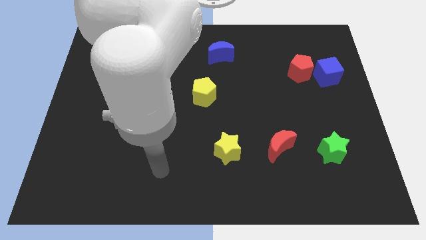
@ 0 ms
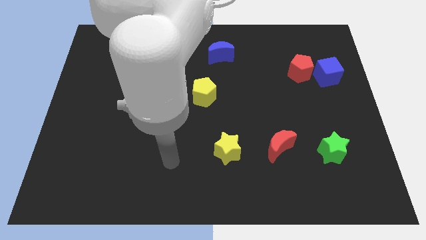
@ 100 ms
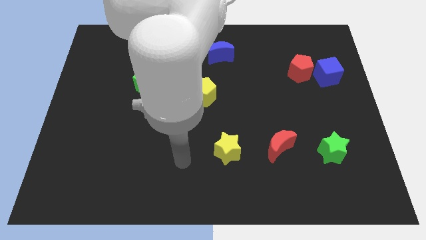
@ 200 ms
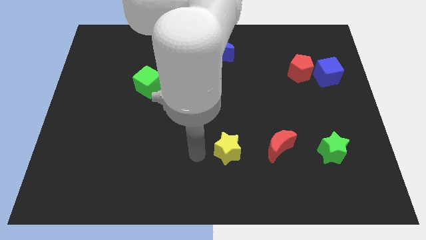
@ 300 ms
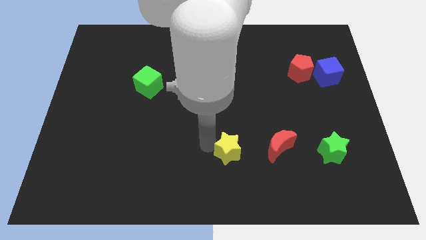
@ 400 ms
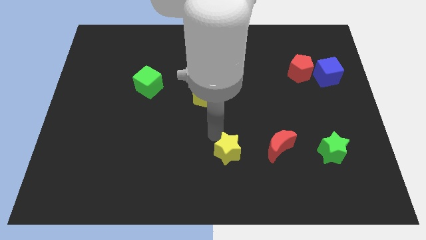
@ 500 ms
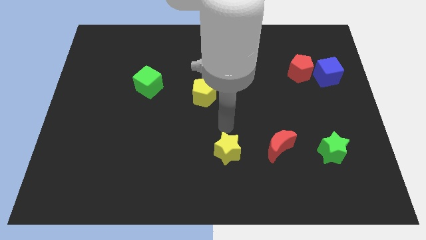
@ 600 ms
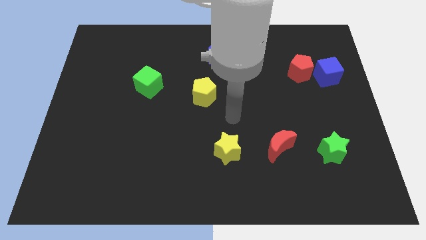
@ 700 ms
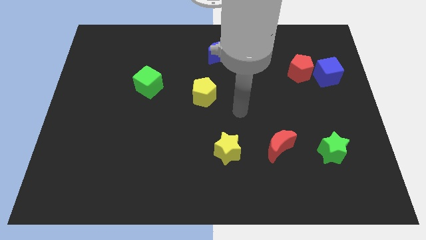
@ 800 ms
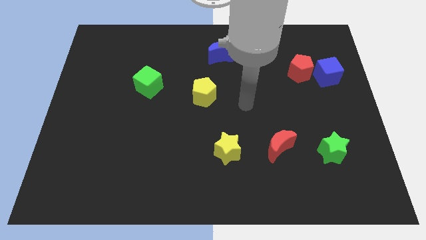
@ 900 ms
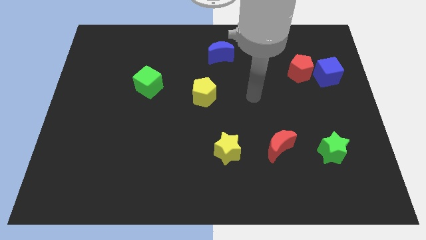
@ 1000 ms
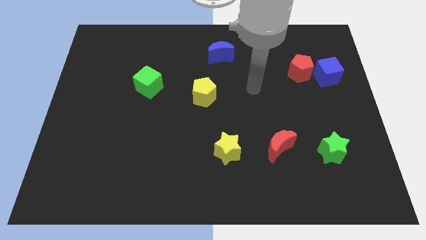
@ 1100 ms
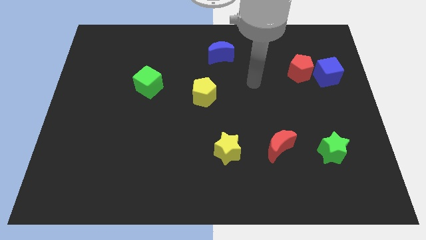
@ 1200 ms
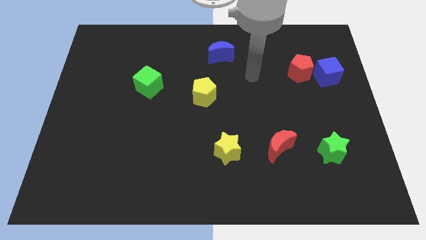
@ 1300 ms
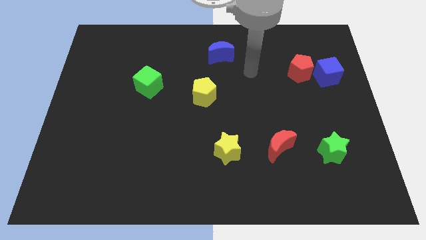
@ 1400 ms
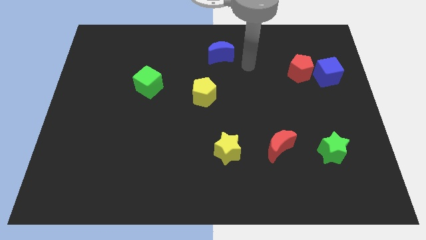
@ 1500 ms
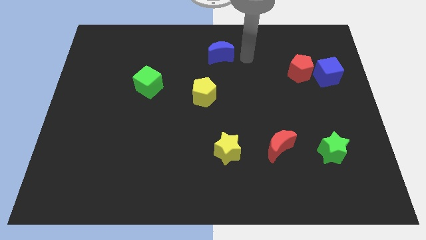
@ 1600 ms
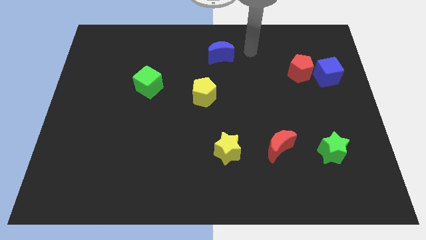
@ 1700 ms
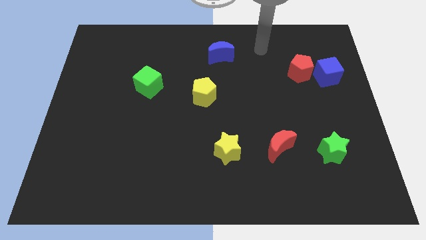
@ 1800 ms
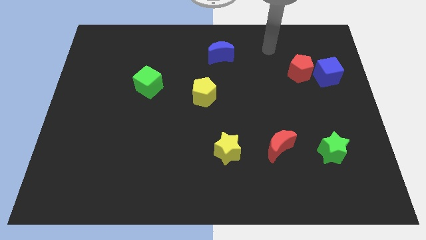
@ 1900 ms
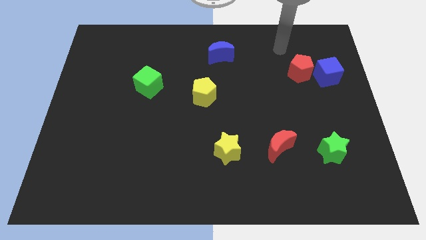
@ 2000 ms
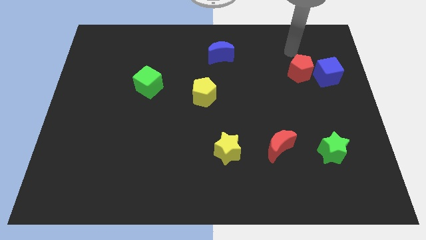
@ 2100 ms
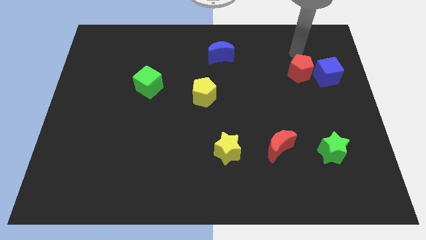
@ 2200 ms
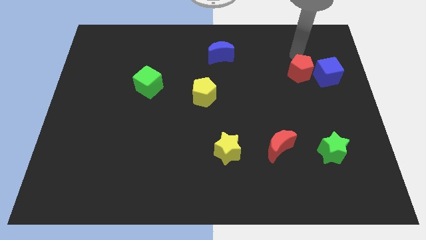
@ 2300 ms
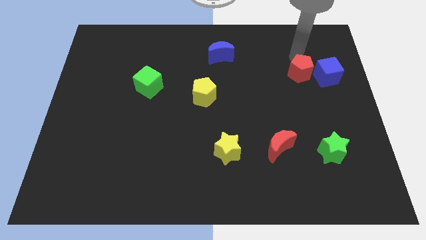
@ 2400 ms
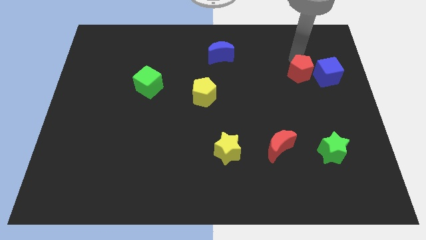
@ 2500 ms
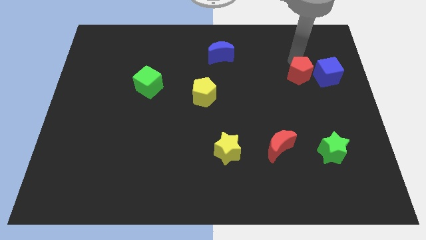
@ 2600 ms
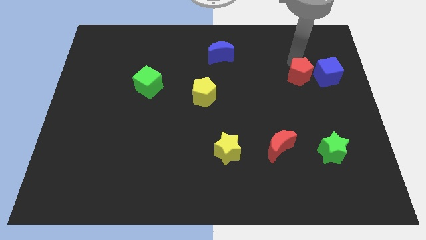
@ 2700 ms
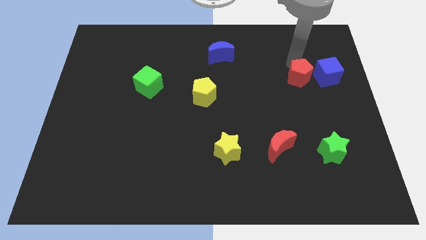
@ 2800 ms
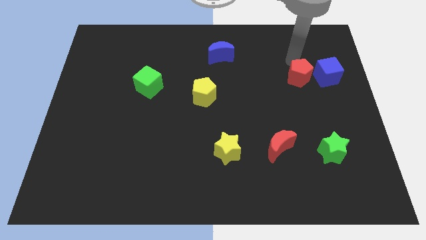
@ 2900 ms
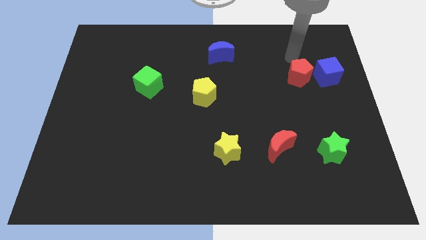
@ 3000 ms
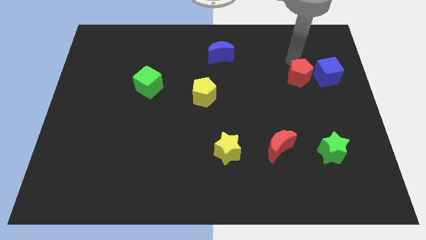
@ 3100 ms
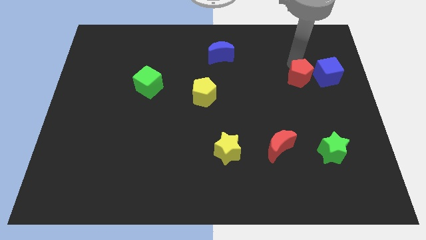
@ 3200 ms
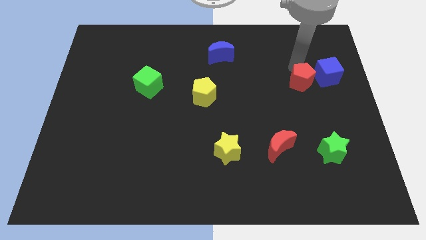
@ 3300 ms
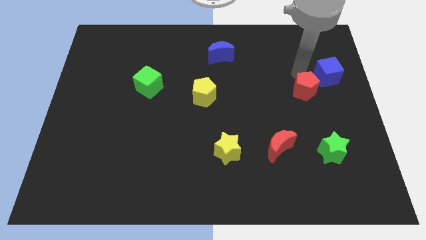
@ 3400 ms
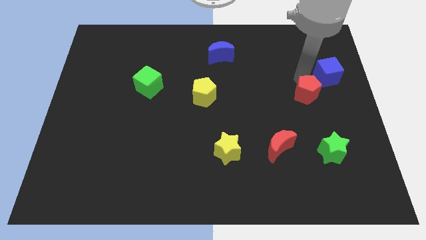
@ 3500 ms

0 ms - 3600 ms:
slightly move the red pentagon downwards

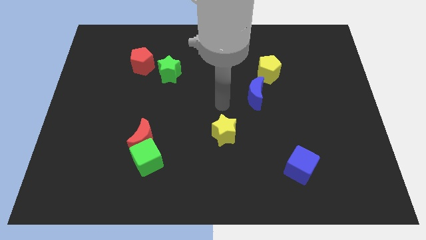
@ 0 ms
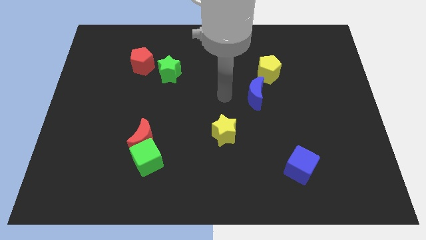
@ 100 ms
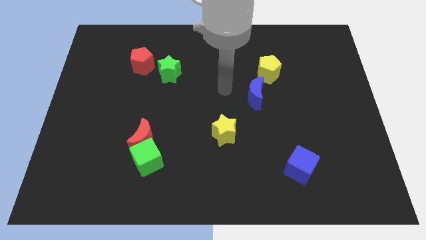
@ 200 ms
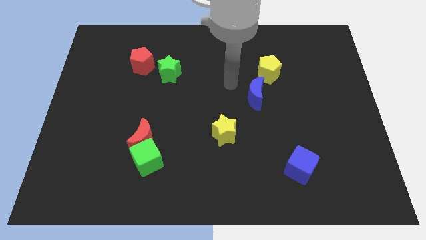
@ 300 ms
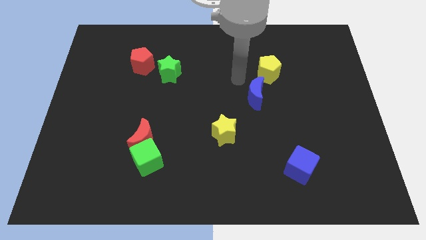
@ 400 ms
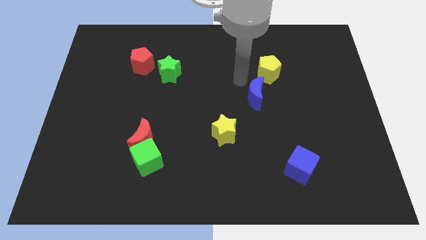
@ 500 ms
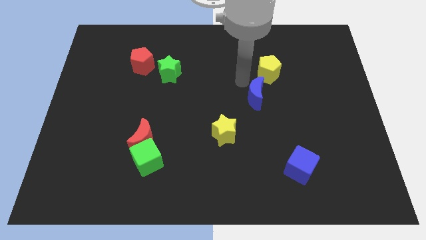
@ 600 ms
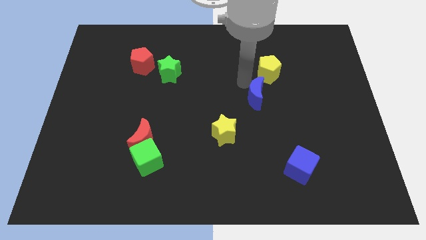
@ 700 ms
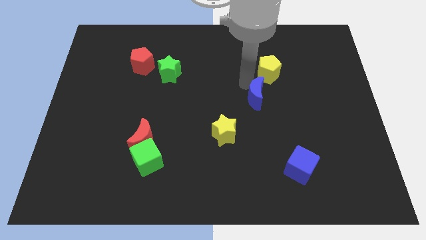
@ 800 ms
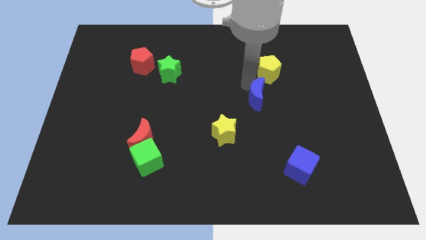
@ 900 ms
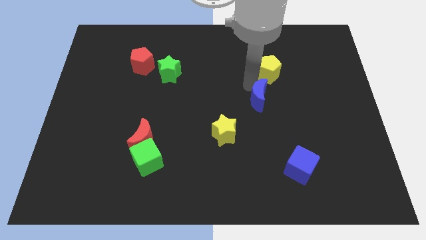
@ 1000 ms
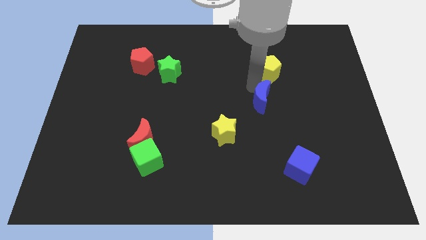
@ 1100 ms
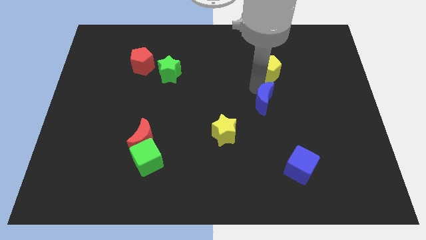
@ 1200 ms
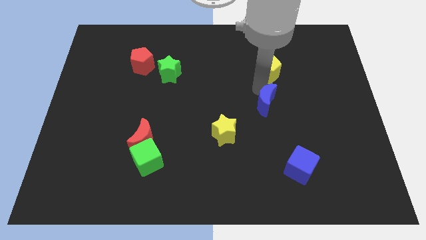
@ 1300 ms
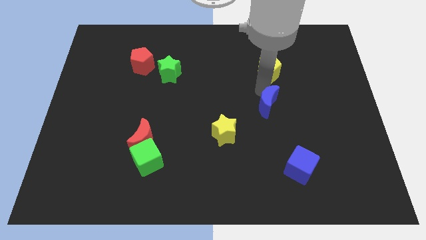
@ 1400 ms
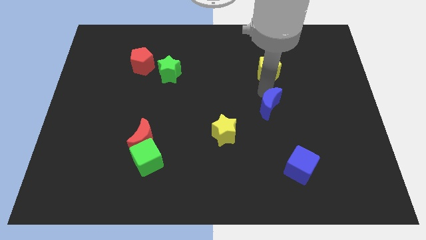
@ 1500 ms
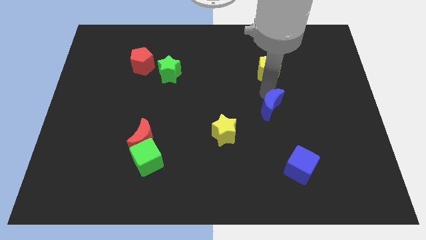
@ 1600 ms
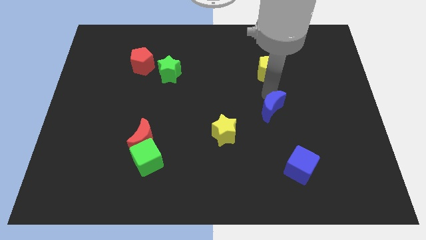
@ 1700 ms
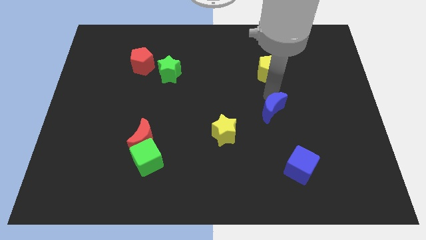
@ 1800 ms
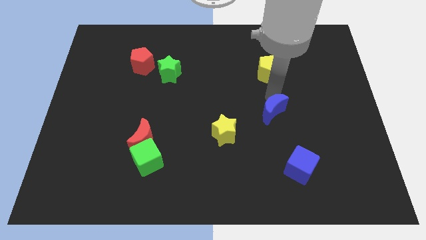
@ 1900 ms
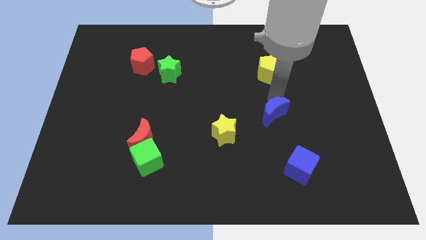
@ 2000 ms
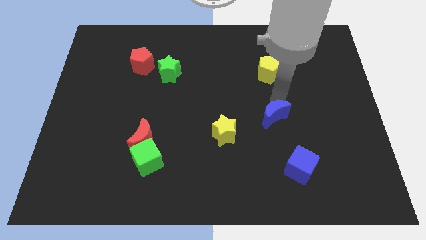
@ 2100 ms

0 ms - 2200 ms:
slide the blue moon downwards and right diagonally a bit

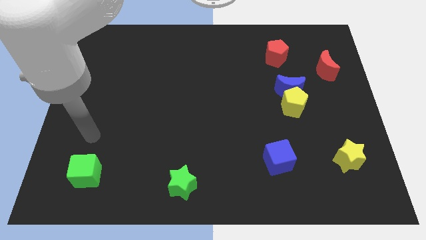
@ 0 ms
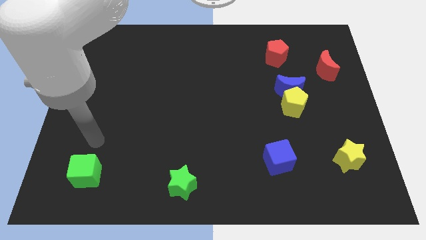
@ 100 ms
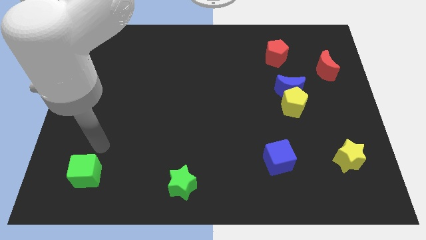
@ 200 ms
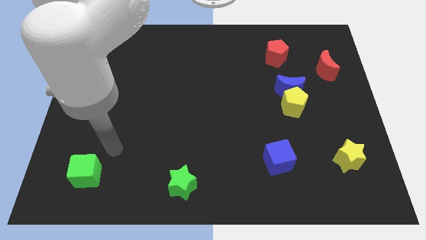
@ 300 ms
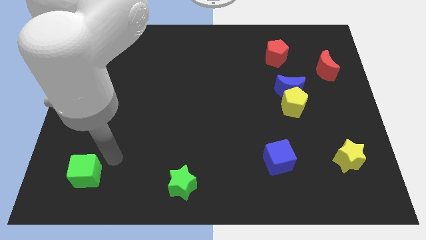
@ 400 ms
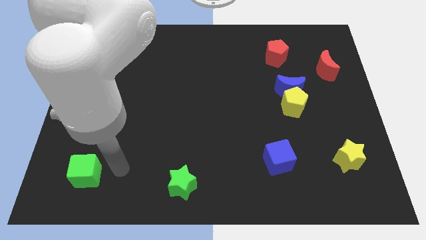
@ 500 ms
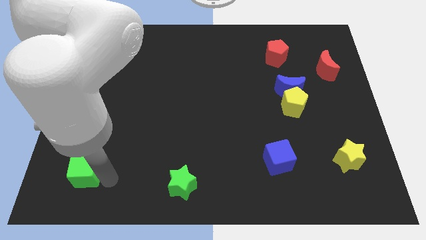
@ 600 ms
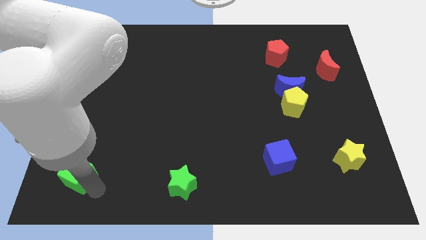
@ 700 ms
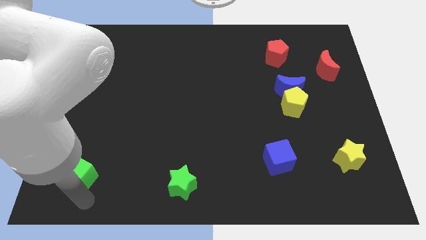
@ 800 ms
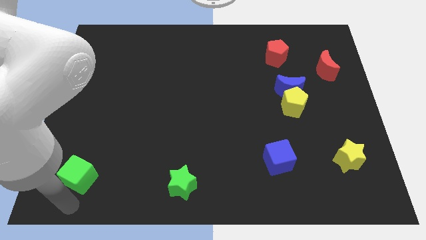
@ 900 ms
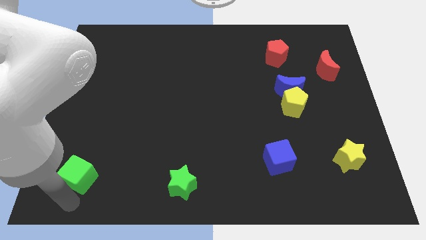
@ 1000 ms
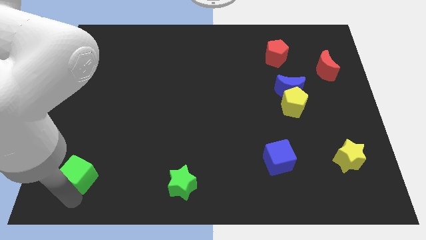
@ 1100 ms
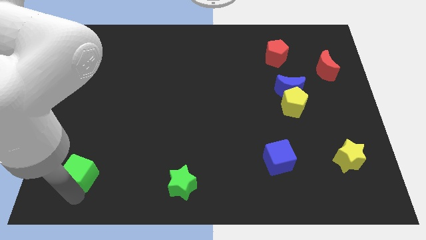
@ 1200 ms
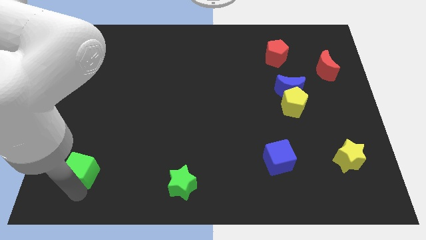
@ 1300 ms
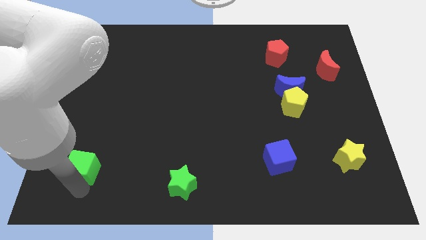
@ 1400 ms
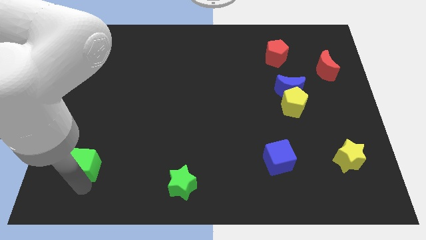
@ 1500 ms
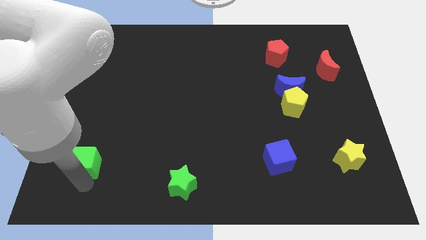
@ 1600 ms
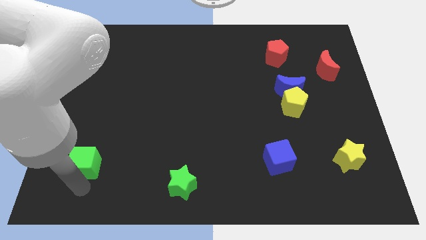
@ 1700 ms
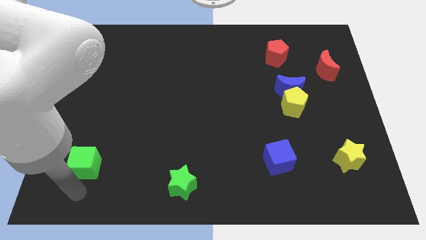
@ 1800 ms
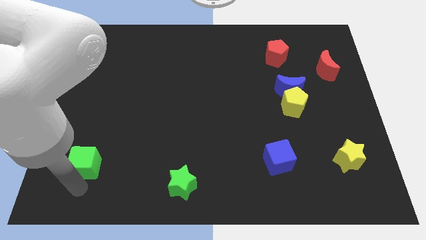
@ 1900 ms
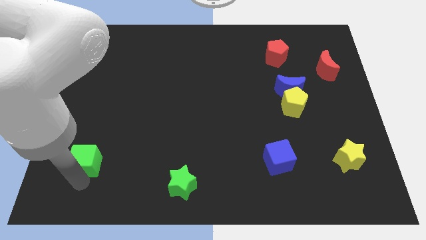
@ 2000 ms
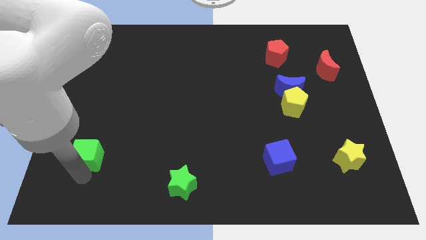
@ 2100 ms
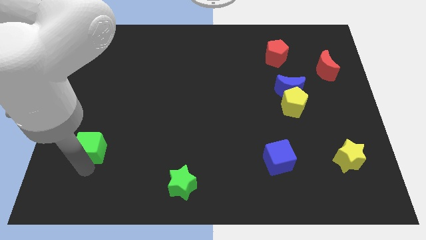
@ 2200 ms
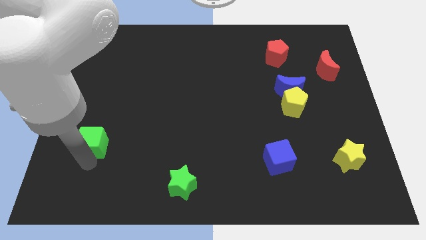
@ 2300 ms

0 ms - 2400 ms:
slide the green cube a little up

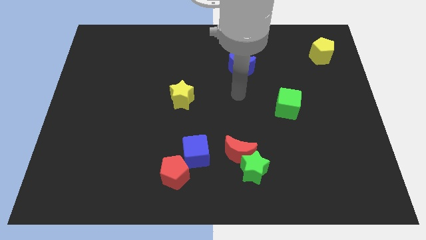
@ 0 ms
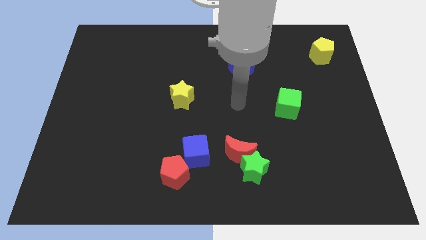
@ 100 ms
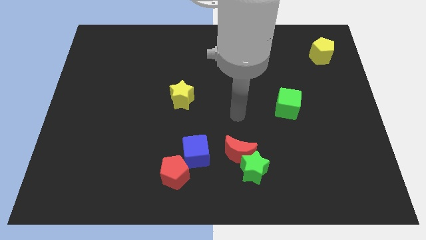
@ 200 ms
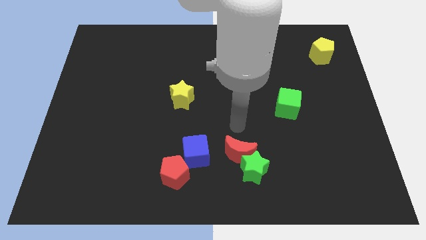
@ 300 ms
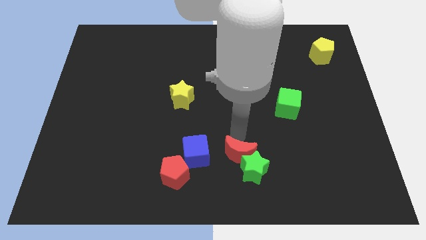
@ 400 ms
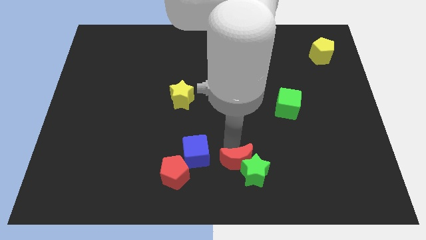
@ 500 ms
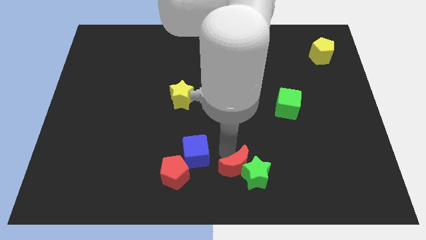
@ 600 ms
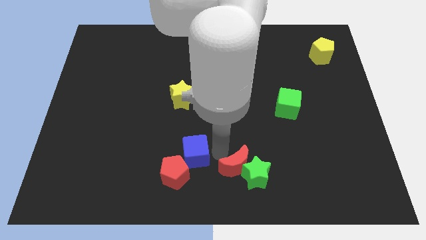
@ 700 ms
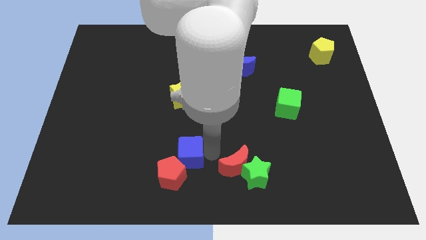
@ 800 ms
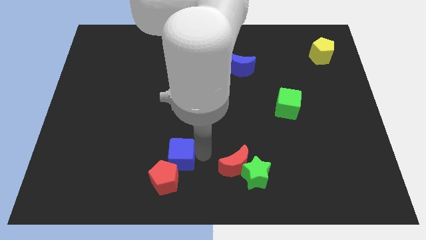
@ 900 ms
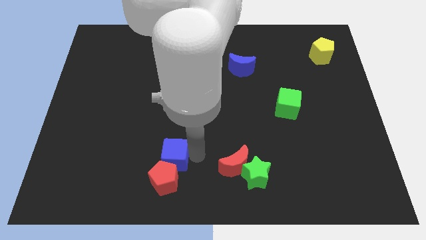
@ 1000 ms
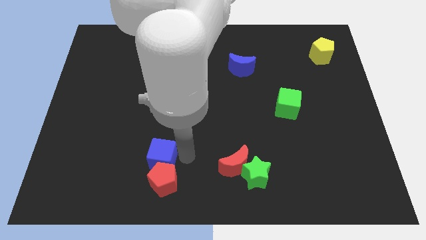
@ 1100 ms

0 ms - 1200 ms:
push the blue cube to the left a little bit
